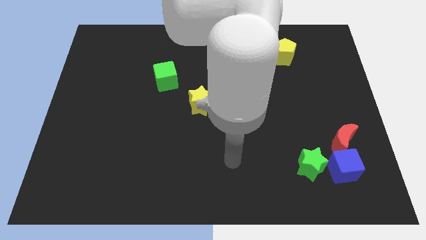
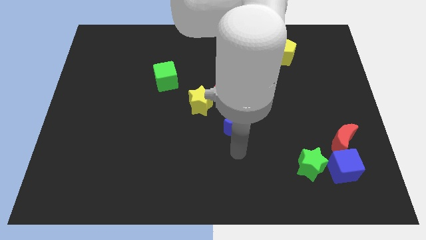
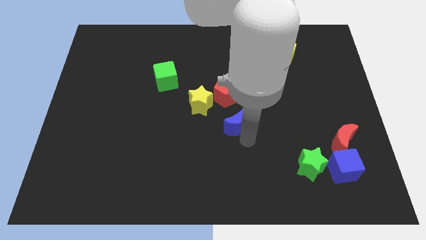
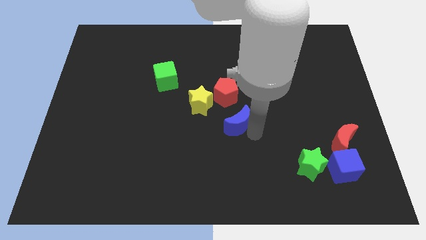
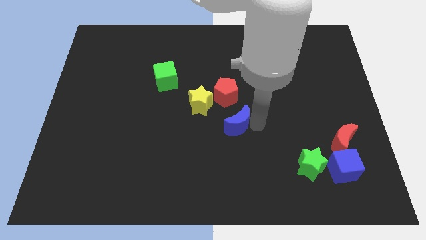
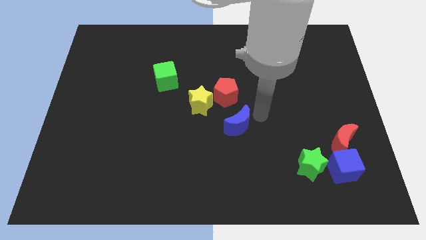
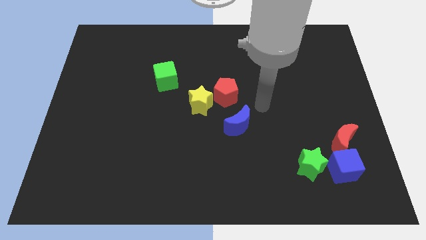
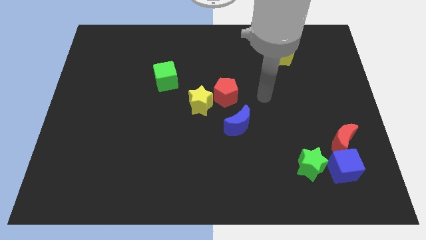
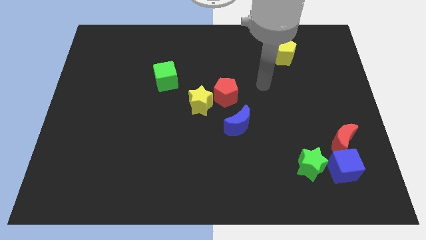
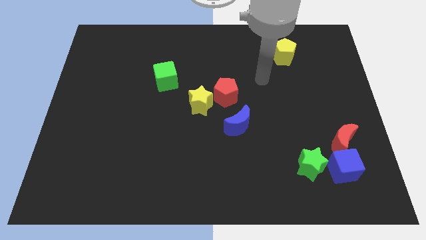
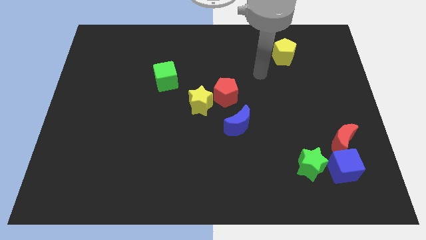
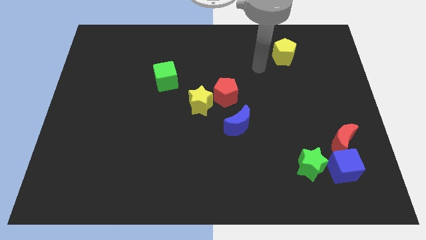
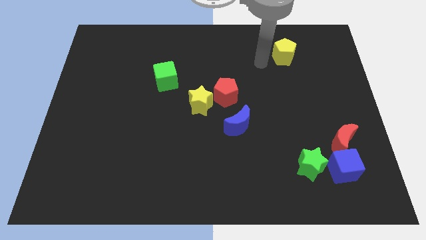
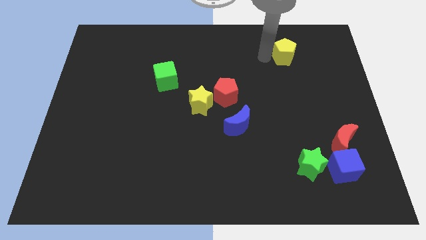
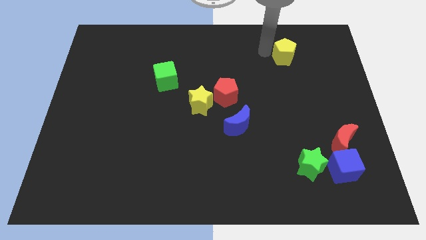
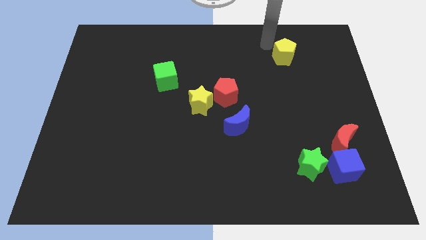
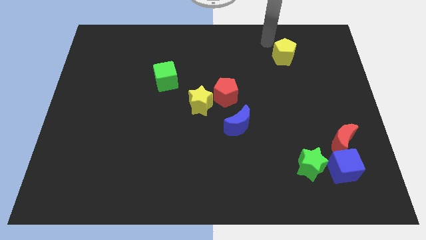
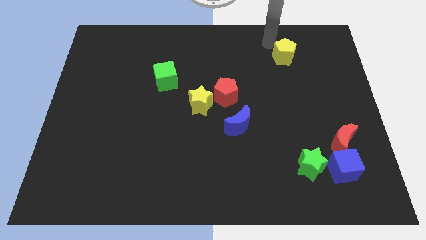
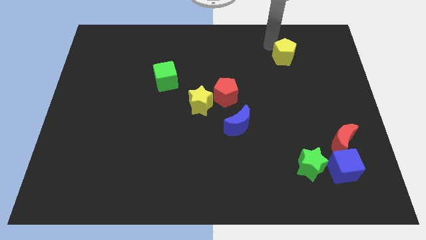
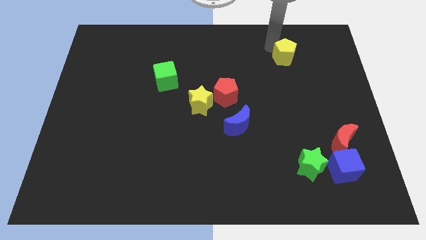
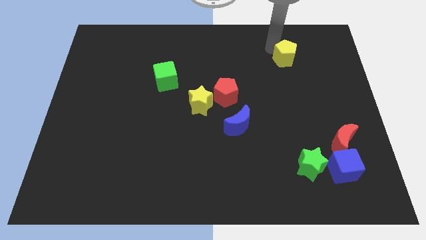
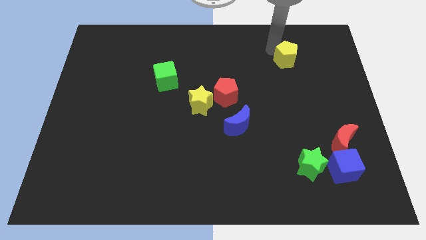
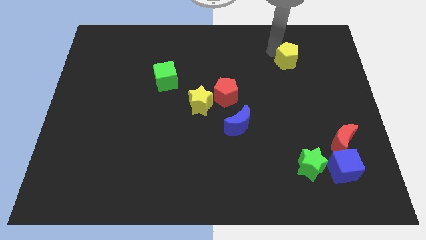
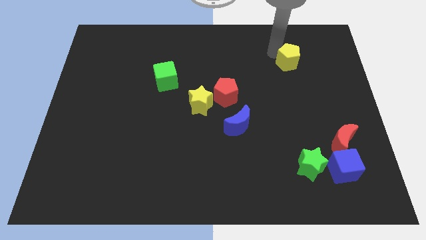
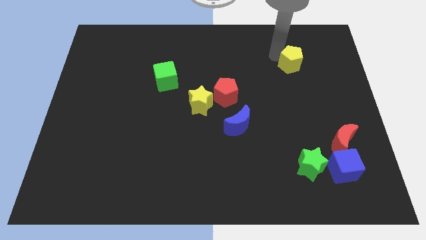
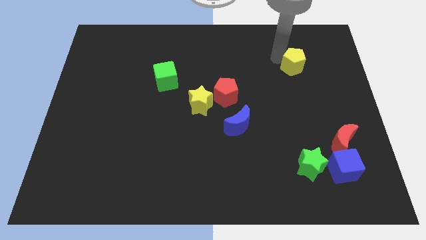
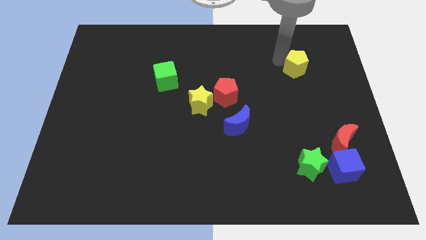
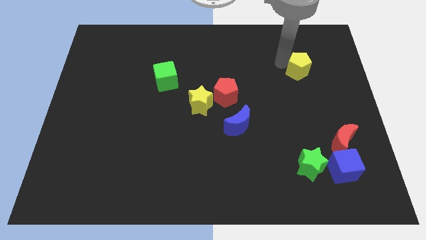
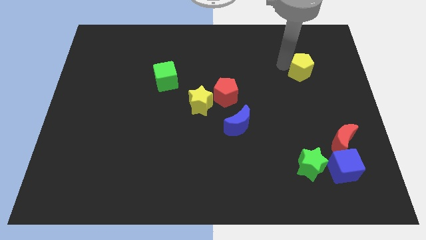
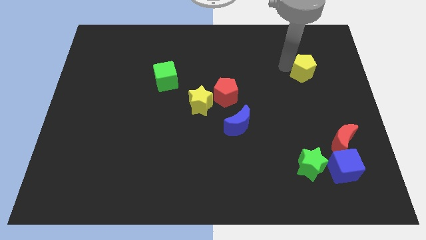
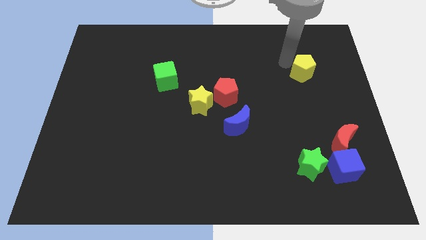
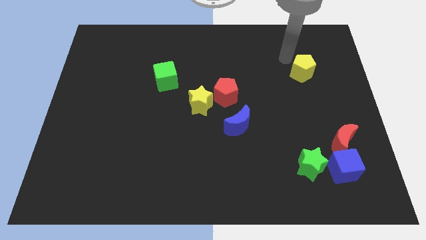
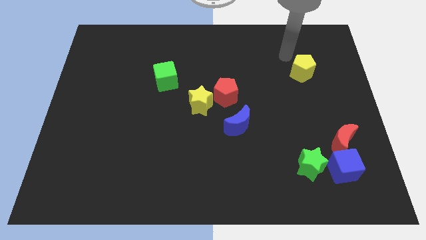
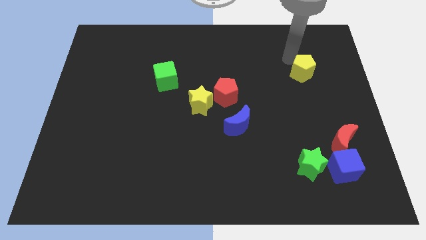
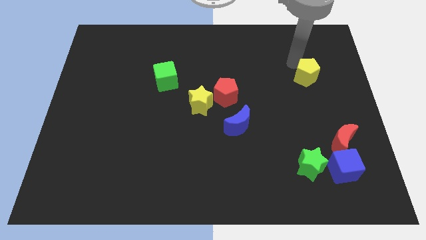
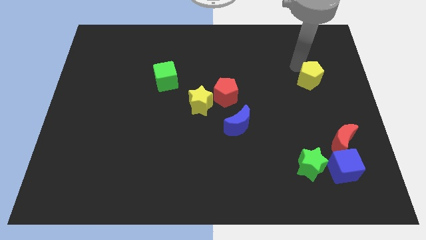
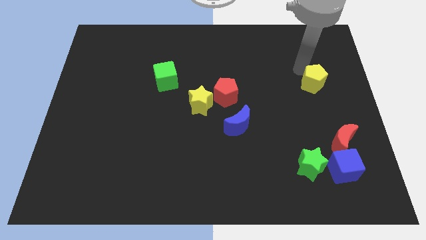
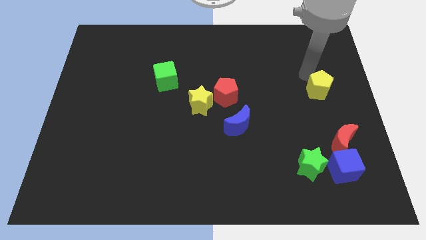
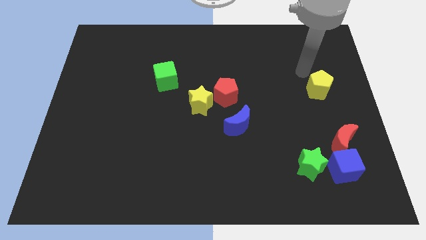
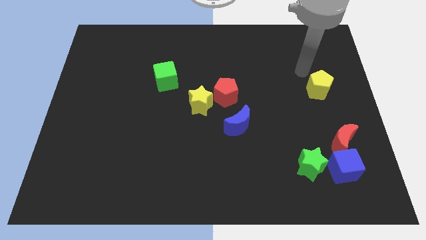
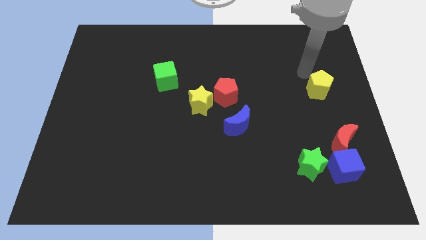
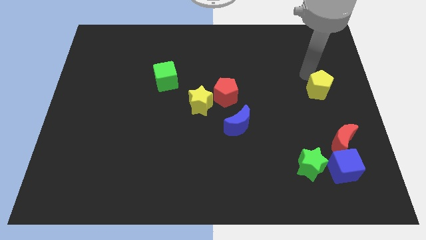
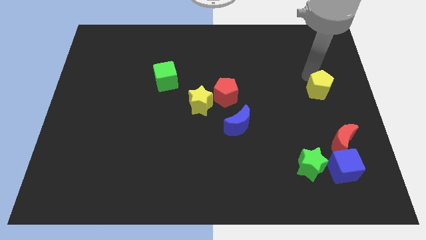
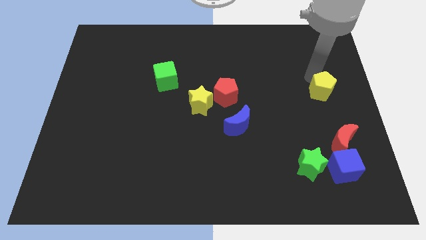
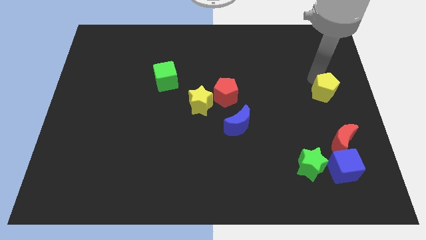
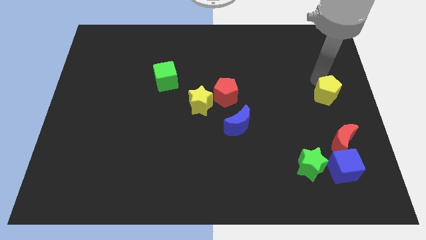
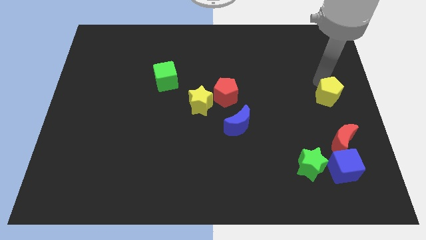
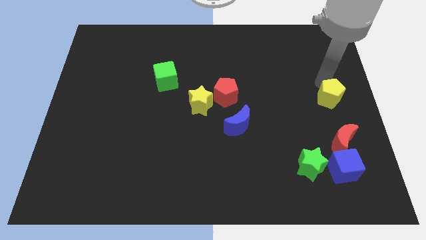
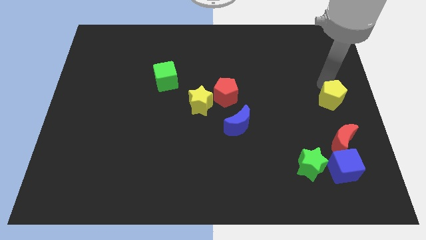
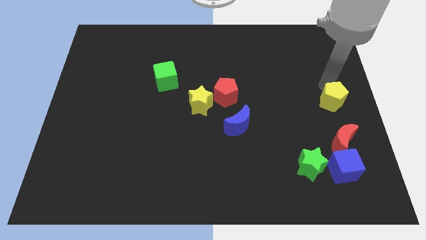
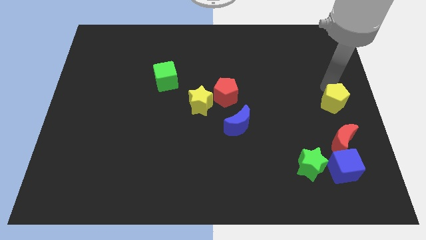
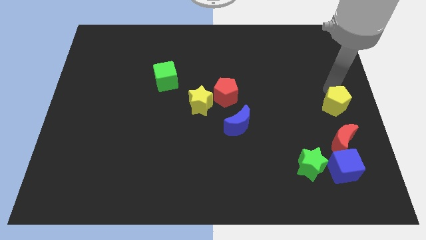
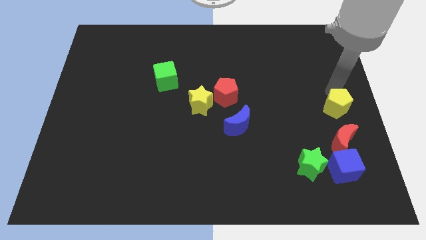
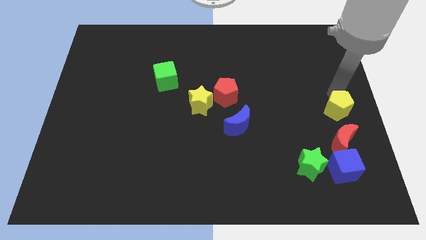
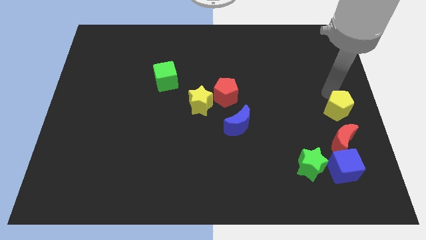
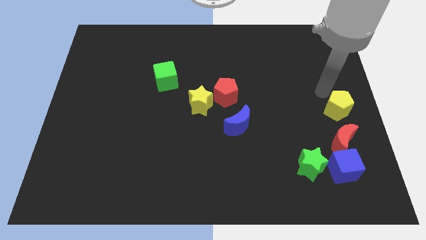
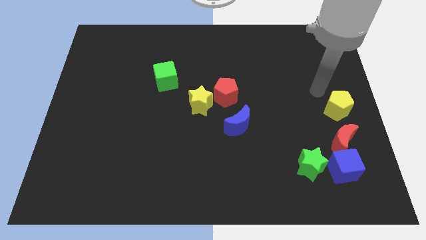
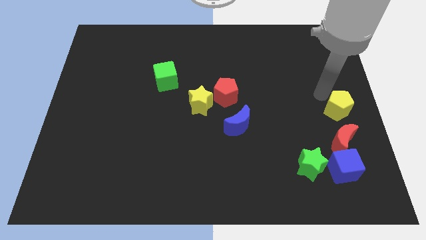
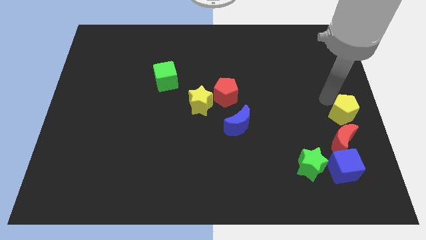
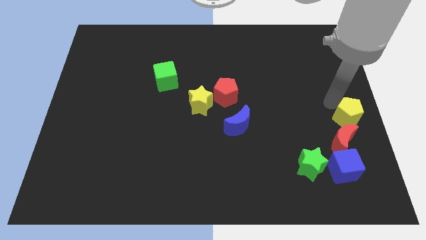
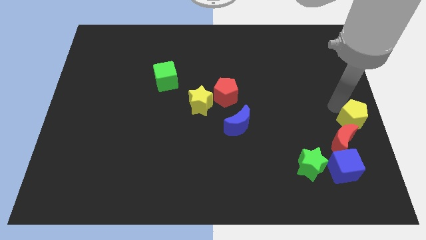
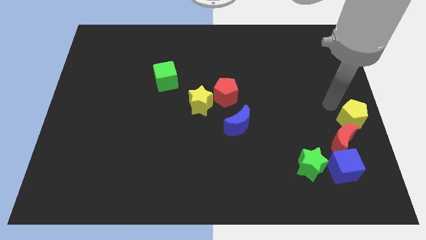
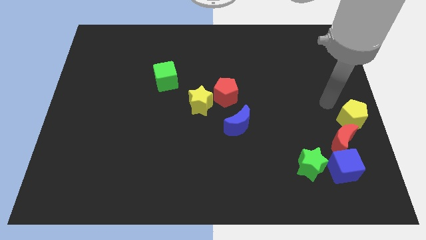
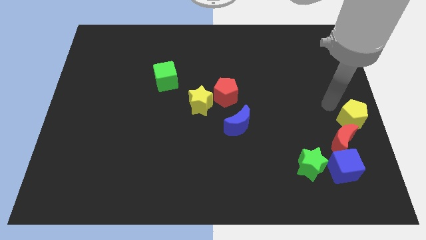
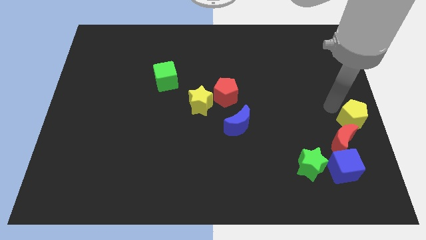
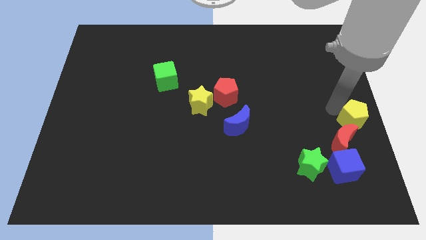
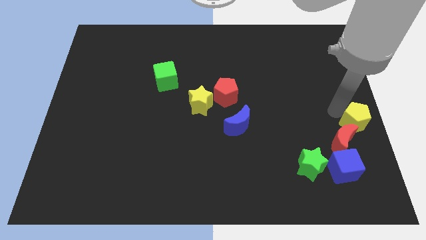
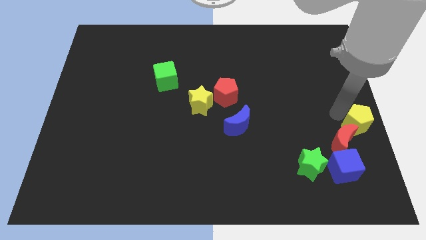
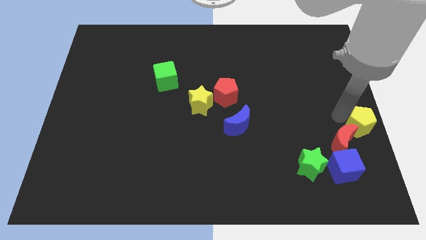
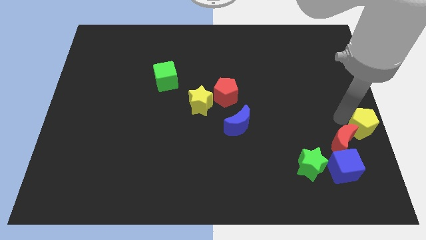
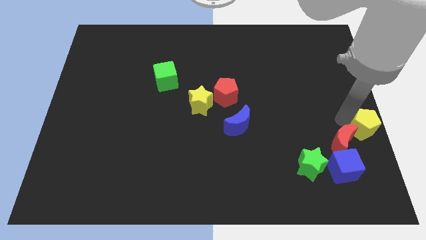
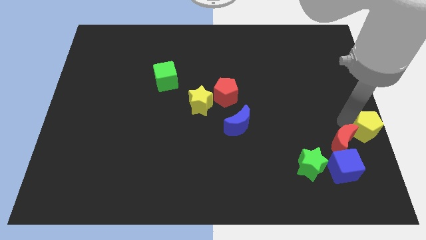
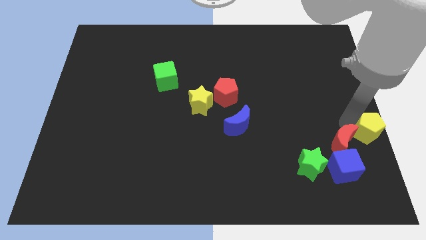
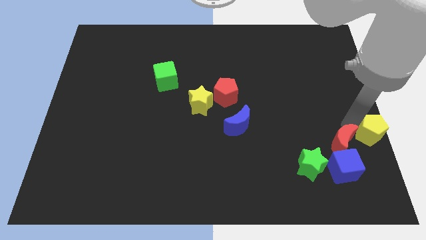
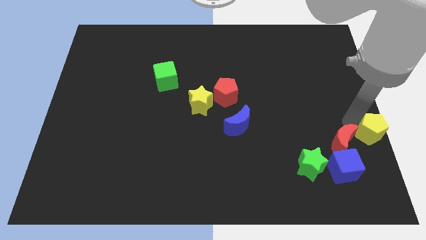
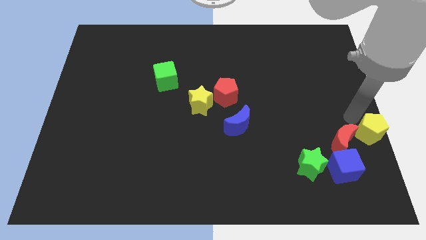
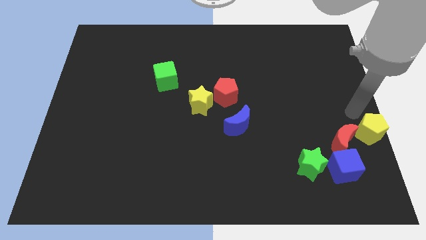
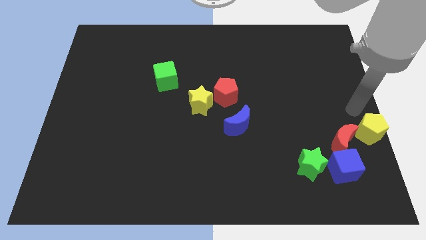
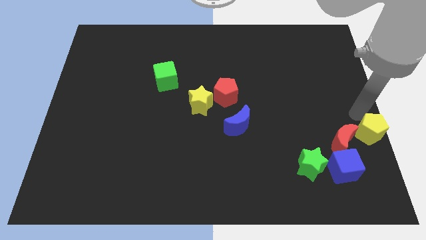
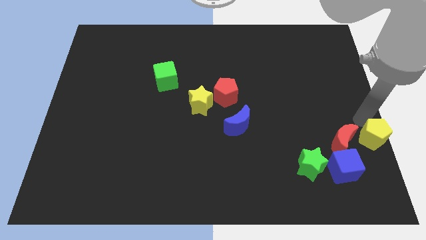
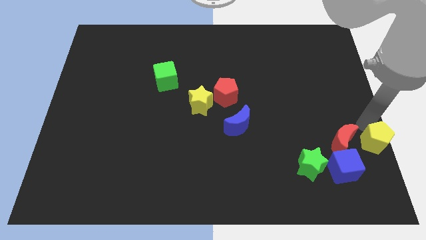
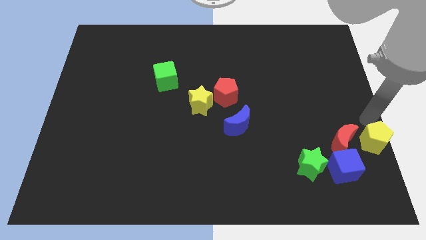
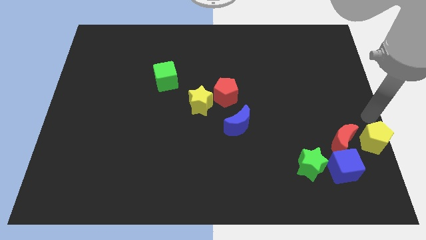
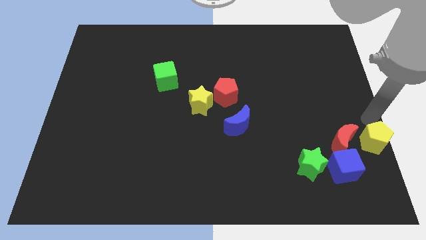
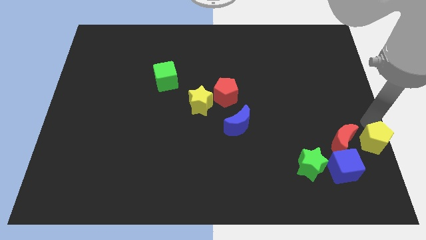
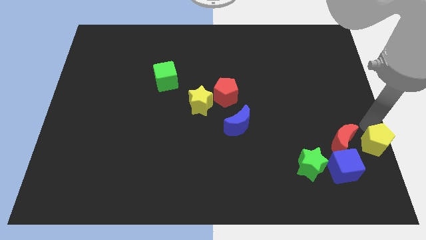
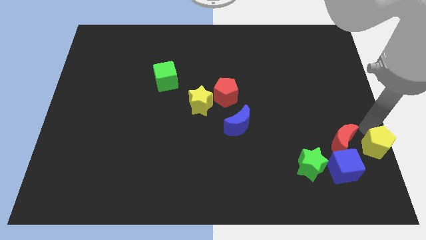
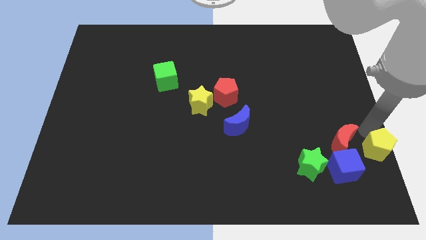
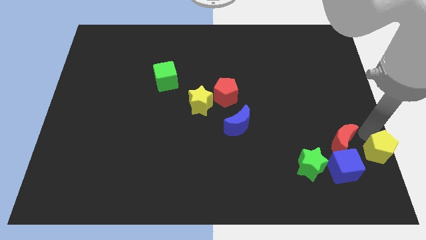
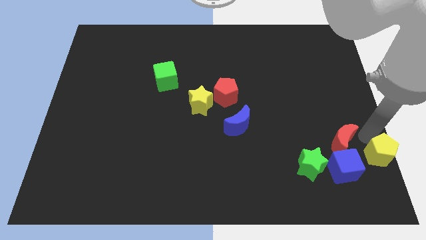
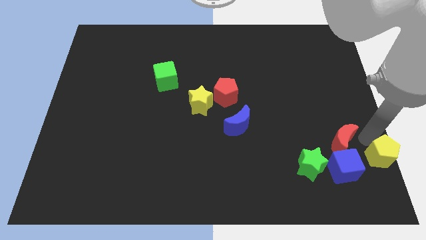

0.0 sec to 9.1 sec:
put the yellow pentagon to the lower right corner
